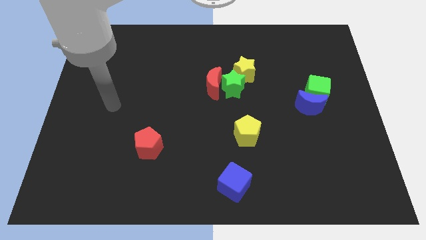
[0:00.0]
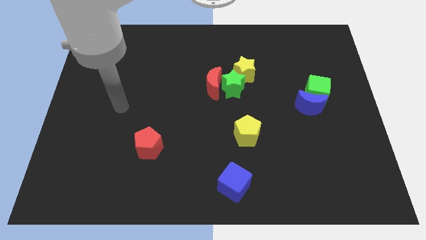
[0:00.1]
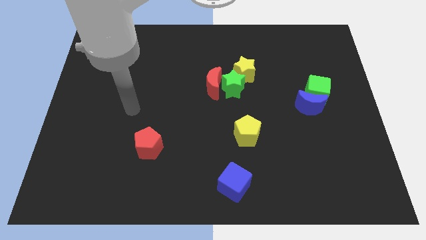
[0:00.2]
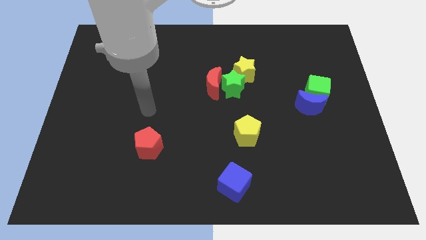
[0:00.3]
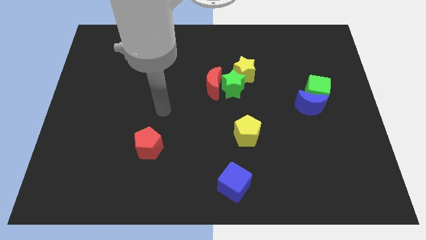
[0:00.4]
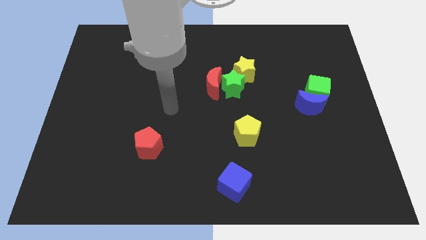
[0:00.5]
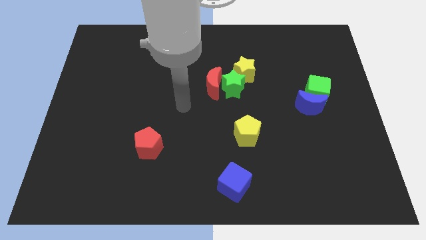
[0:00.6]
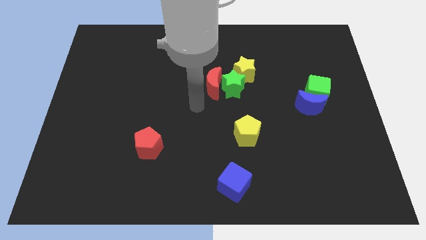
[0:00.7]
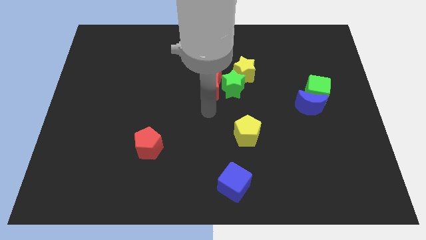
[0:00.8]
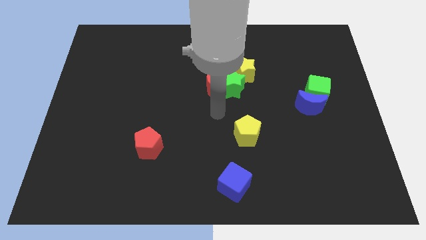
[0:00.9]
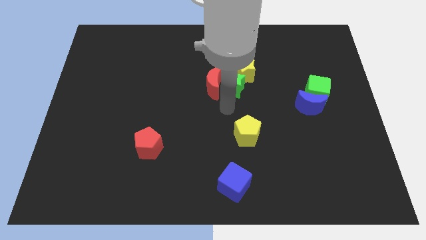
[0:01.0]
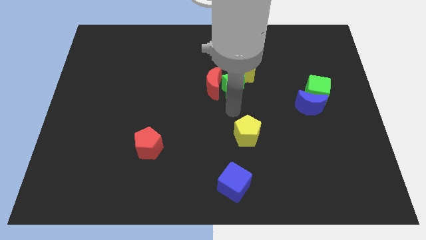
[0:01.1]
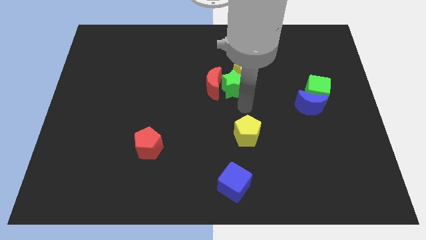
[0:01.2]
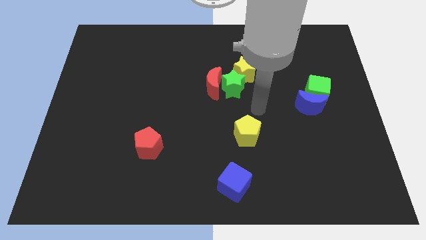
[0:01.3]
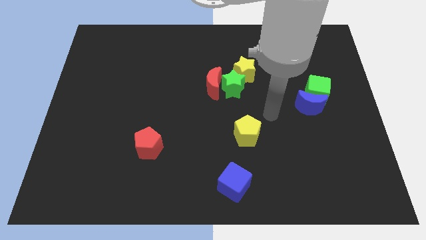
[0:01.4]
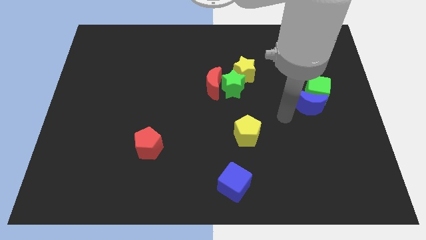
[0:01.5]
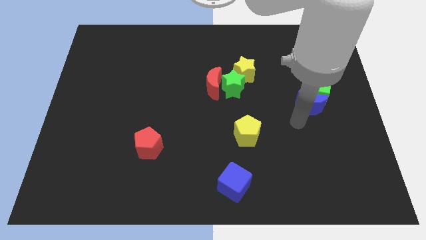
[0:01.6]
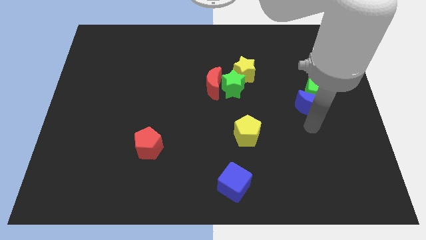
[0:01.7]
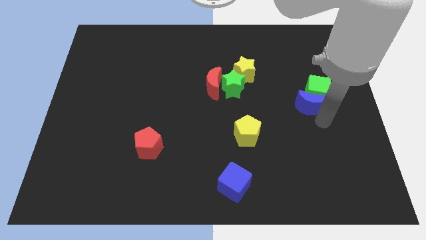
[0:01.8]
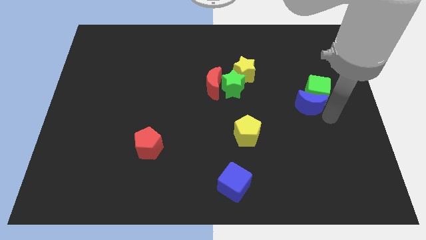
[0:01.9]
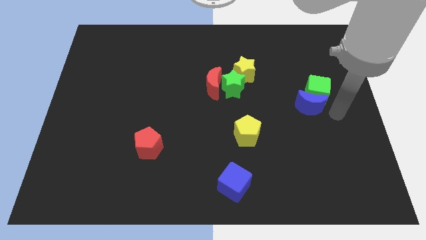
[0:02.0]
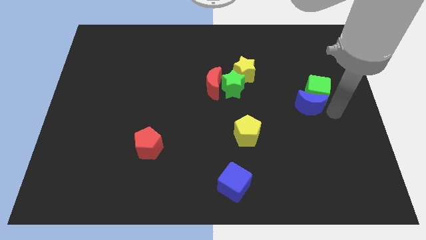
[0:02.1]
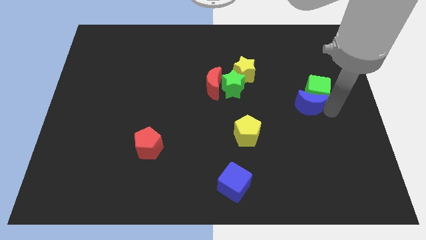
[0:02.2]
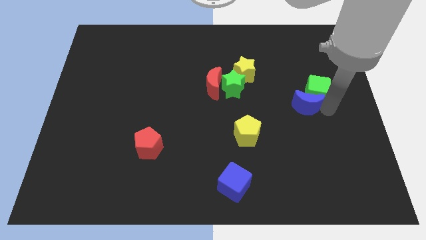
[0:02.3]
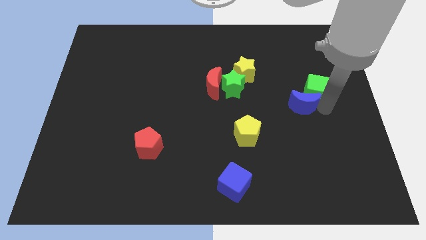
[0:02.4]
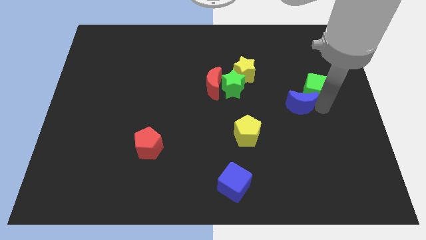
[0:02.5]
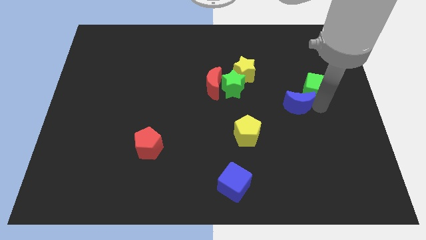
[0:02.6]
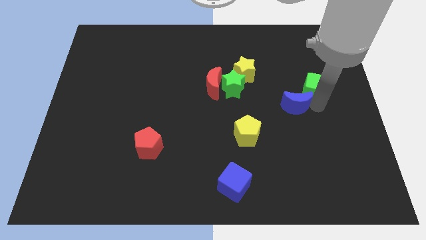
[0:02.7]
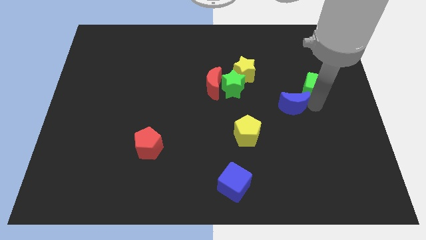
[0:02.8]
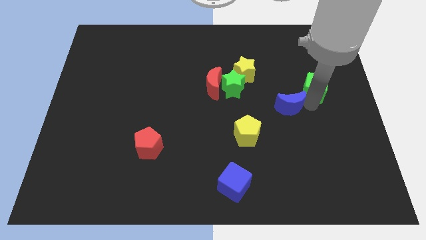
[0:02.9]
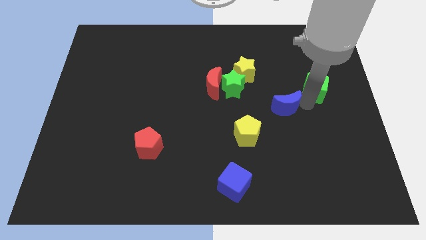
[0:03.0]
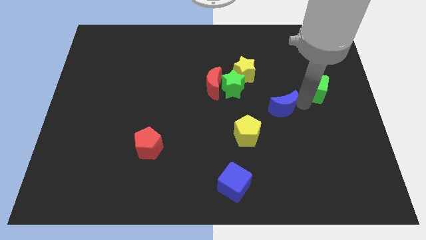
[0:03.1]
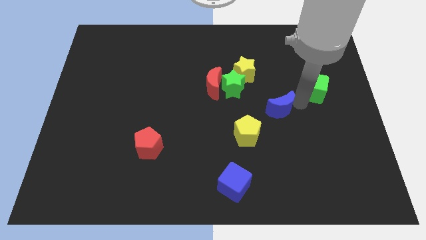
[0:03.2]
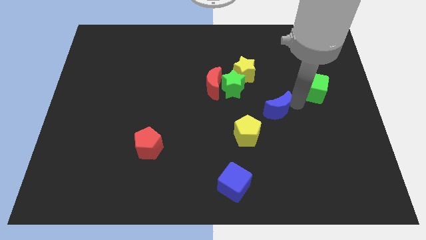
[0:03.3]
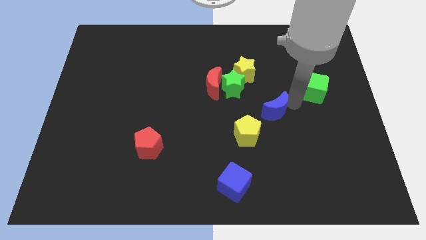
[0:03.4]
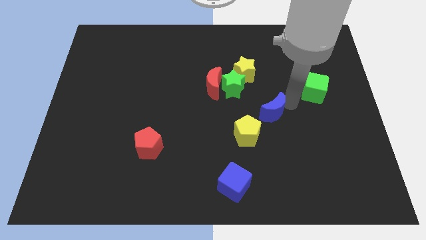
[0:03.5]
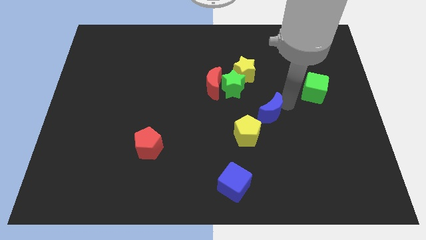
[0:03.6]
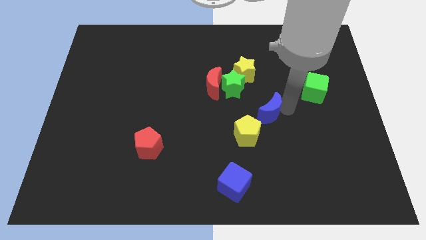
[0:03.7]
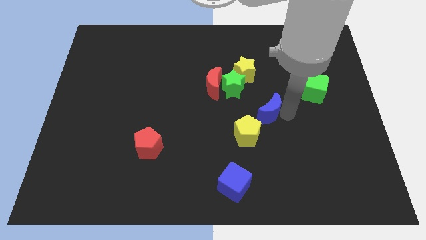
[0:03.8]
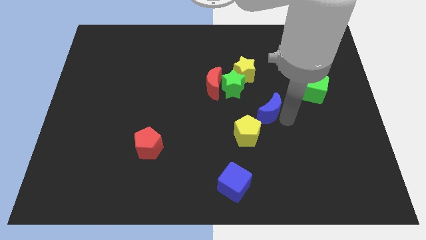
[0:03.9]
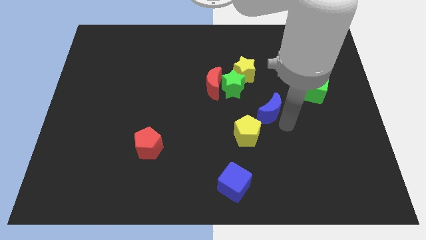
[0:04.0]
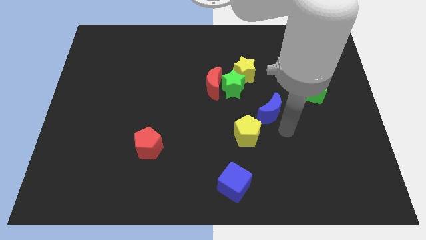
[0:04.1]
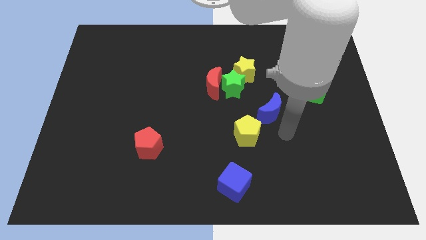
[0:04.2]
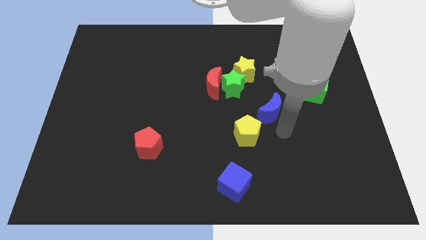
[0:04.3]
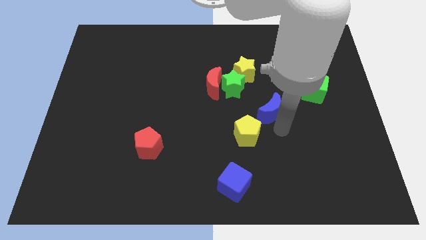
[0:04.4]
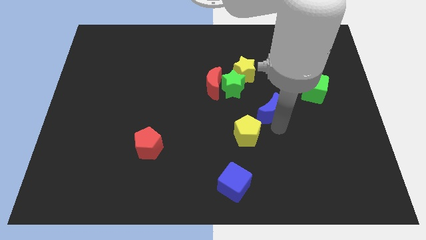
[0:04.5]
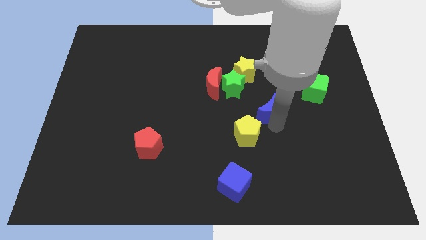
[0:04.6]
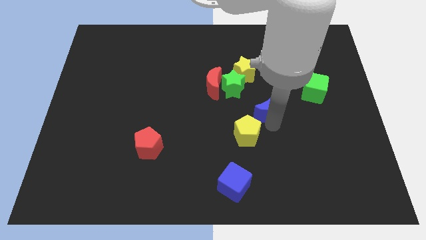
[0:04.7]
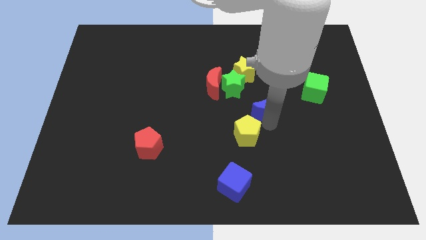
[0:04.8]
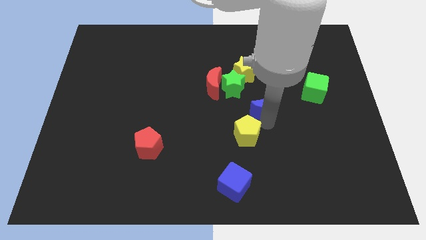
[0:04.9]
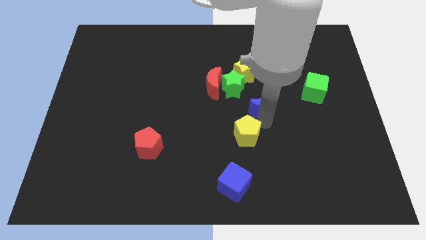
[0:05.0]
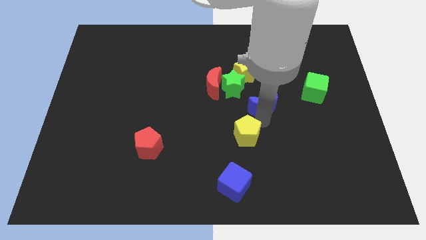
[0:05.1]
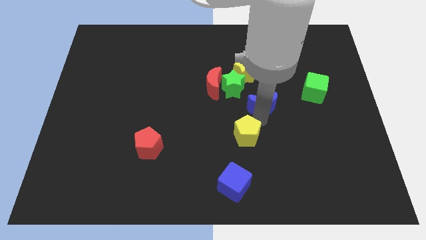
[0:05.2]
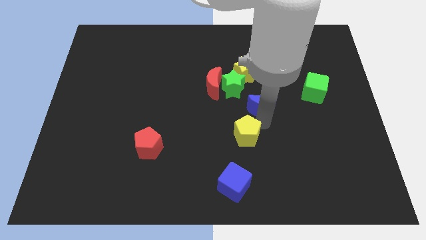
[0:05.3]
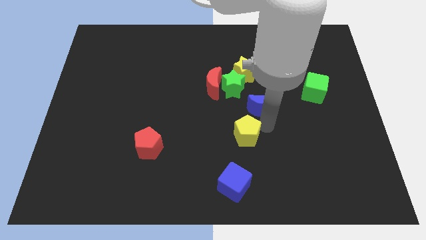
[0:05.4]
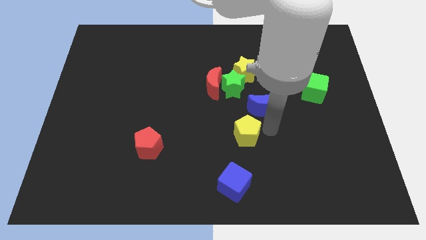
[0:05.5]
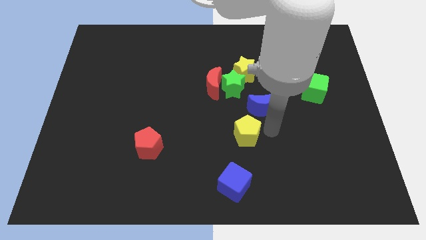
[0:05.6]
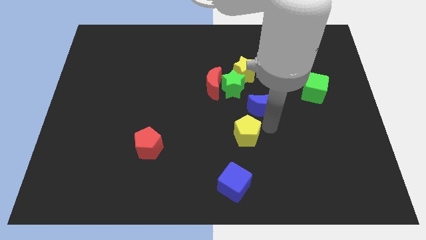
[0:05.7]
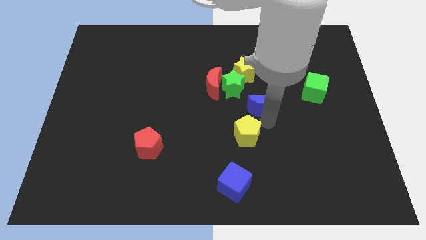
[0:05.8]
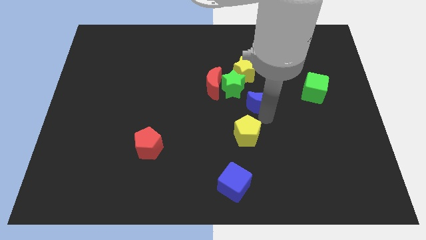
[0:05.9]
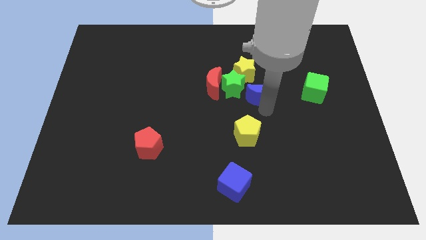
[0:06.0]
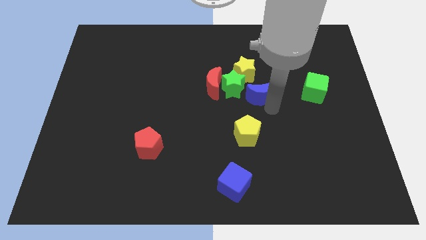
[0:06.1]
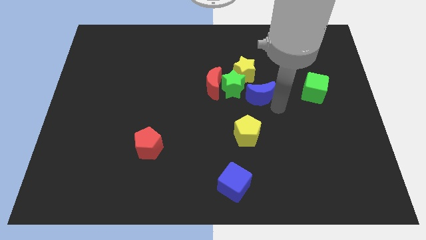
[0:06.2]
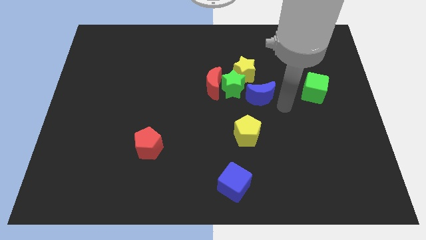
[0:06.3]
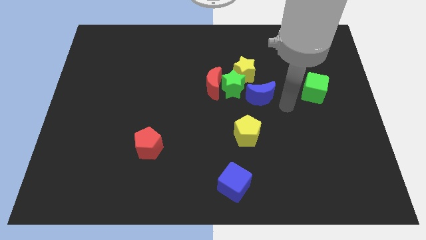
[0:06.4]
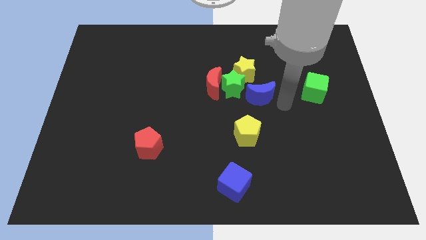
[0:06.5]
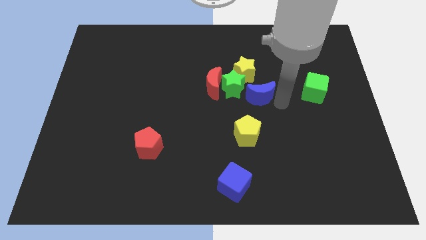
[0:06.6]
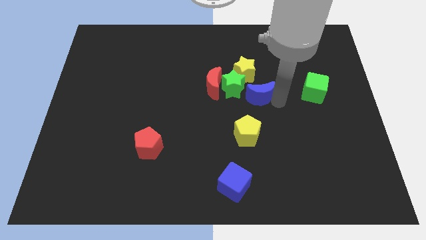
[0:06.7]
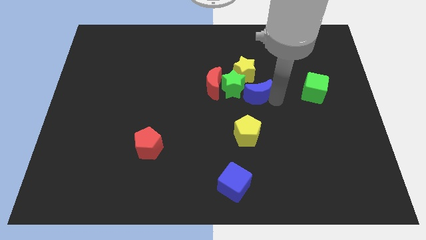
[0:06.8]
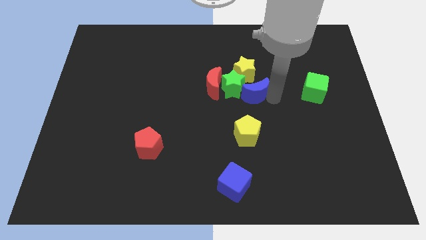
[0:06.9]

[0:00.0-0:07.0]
push the blue moon close to the green star
